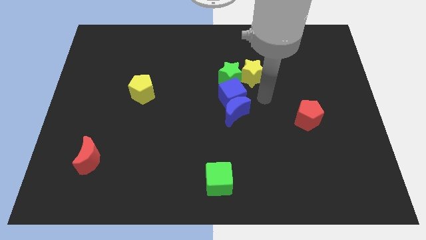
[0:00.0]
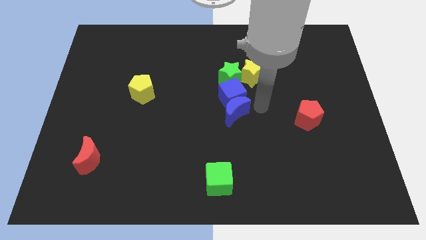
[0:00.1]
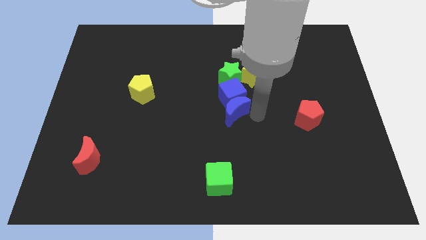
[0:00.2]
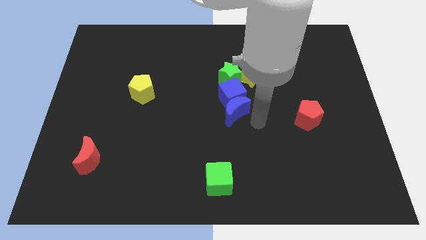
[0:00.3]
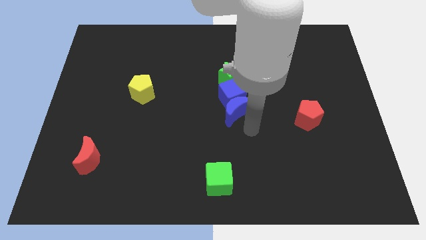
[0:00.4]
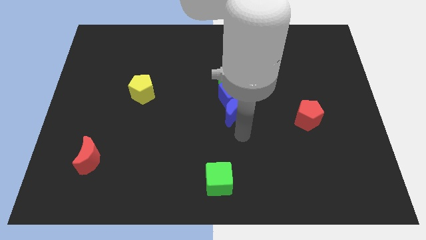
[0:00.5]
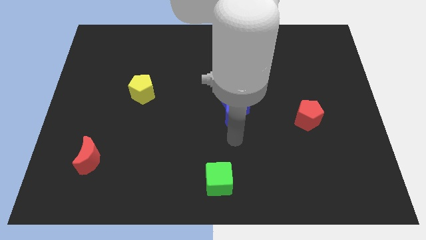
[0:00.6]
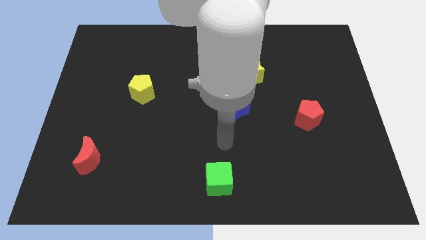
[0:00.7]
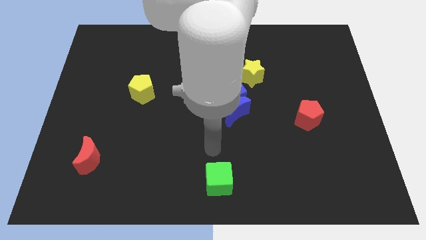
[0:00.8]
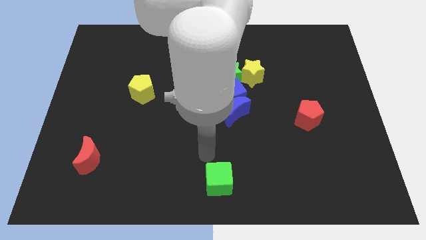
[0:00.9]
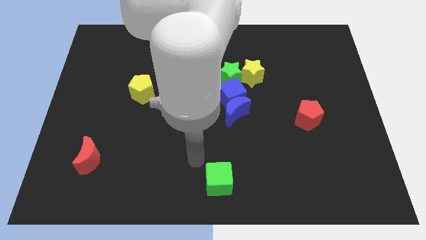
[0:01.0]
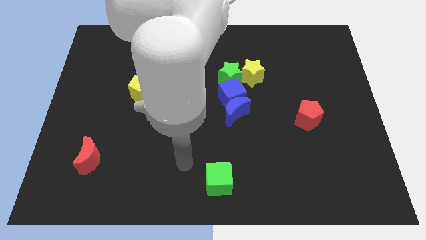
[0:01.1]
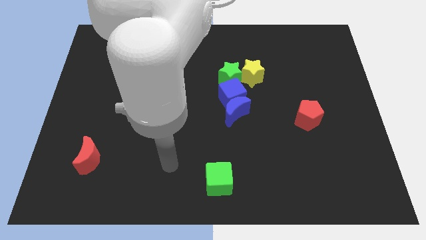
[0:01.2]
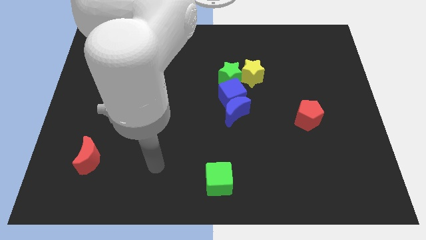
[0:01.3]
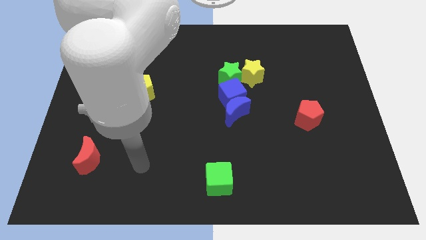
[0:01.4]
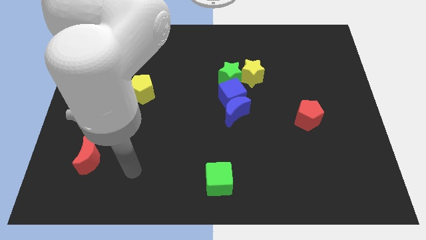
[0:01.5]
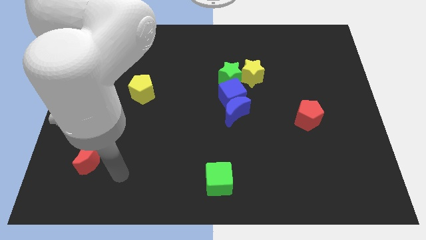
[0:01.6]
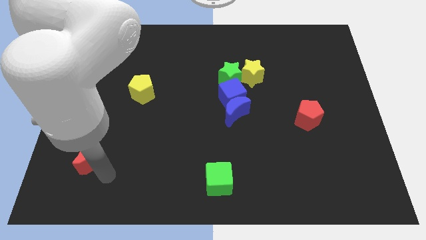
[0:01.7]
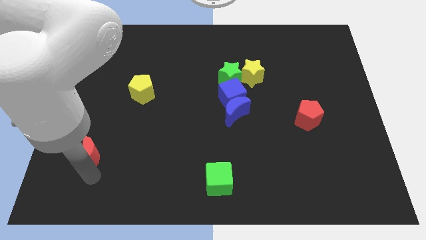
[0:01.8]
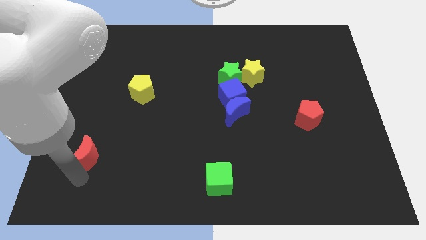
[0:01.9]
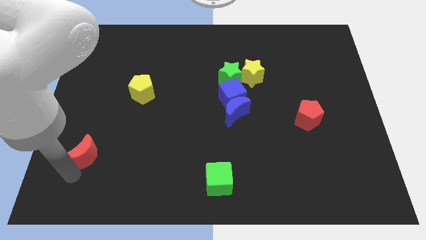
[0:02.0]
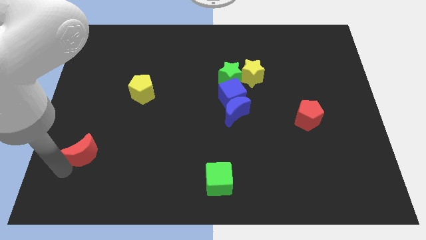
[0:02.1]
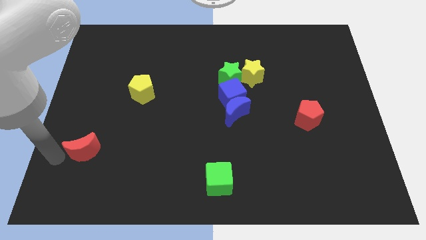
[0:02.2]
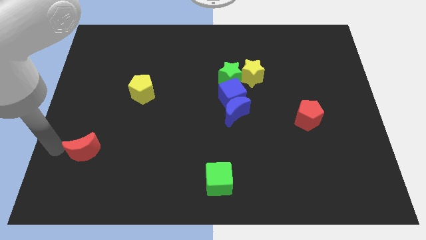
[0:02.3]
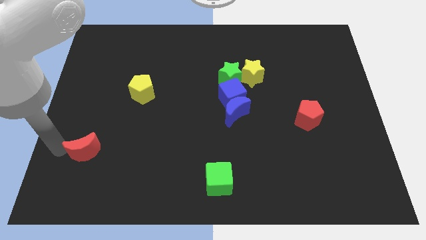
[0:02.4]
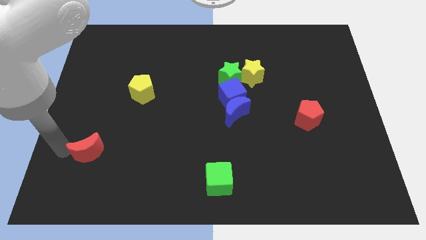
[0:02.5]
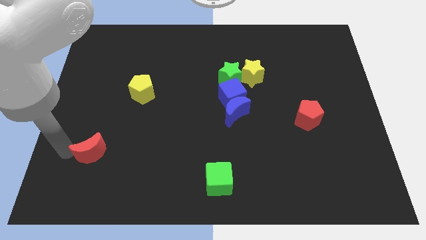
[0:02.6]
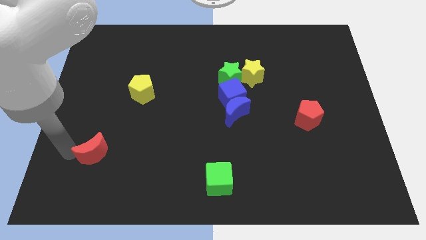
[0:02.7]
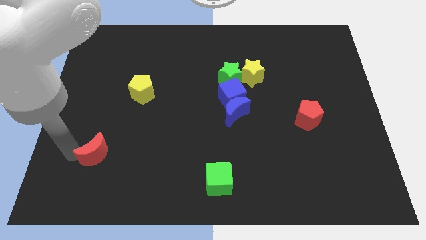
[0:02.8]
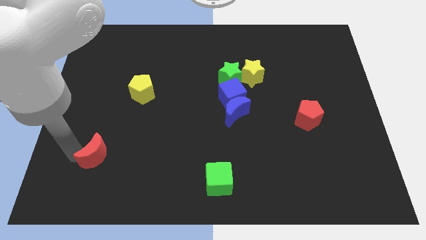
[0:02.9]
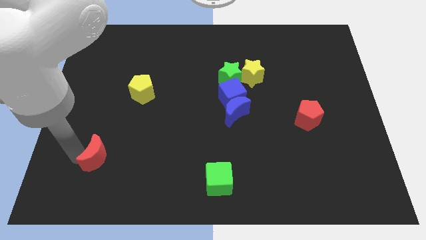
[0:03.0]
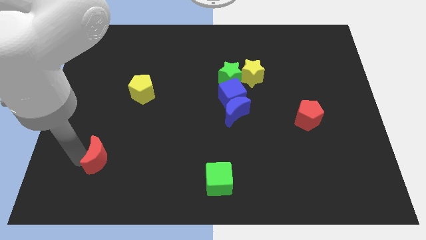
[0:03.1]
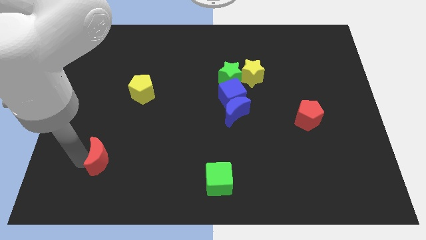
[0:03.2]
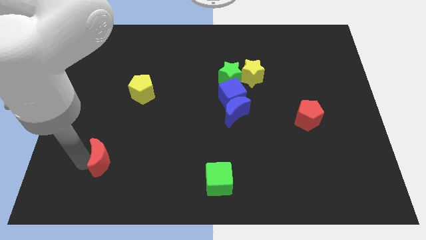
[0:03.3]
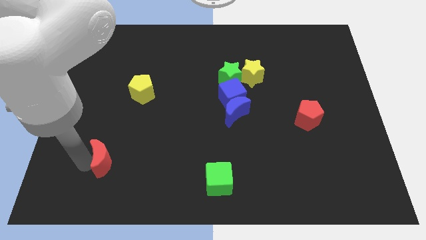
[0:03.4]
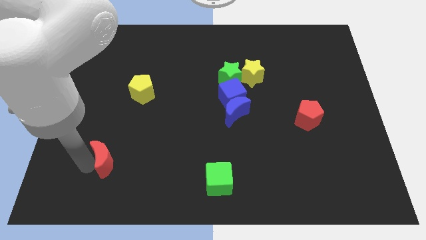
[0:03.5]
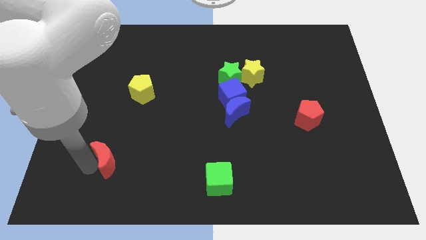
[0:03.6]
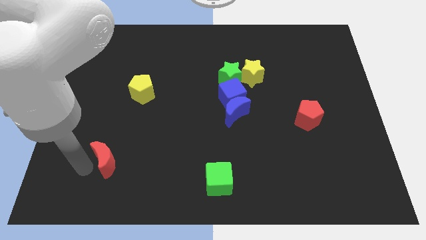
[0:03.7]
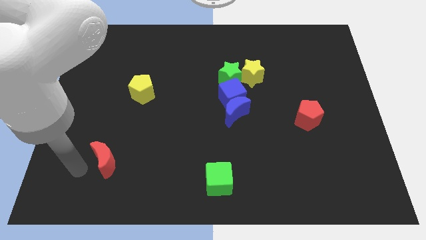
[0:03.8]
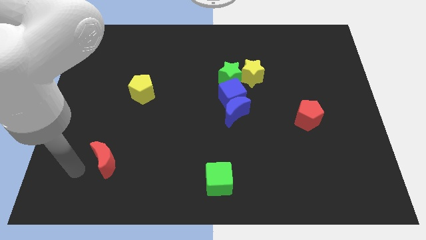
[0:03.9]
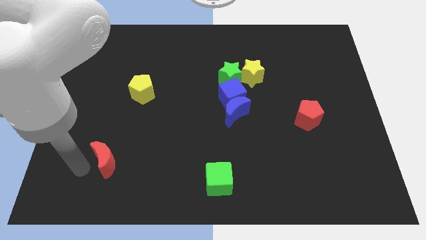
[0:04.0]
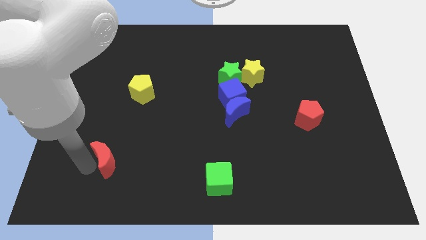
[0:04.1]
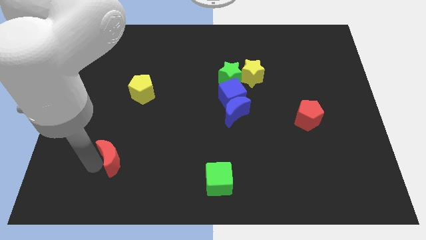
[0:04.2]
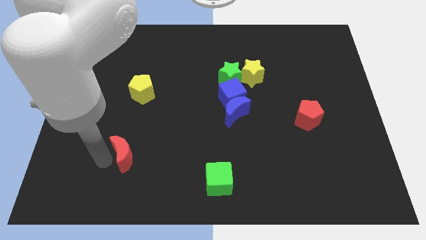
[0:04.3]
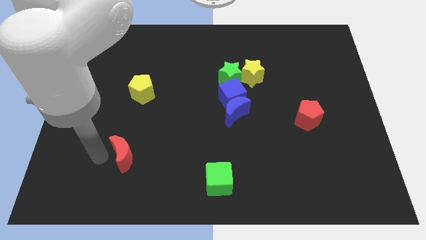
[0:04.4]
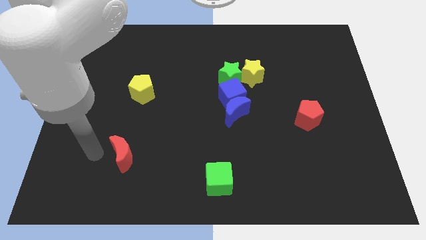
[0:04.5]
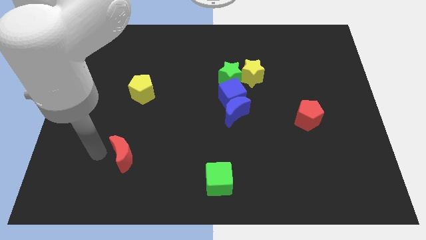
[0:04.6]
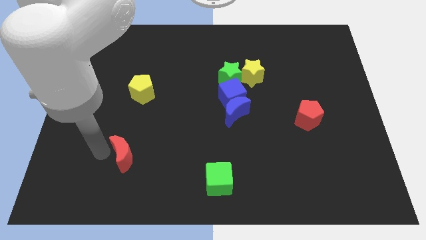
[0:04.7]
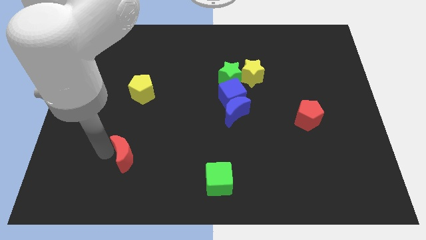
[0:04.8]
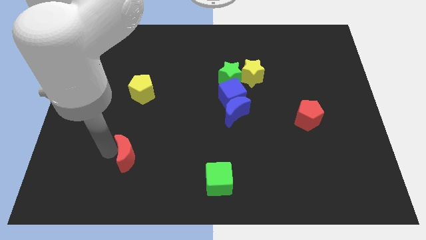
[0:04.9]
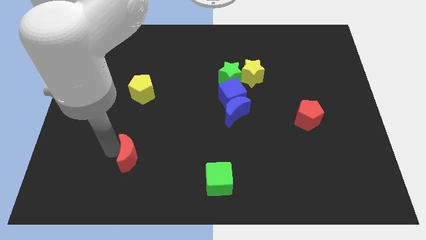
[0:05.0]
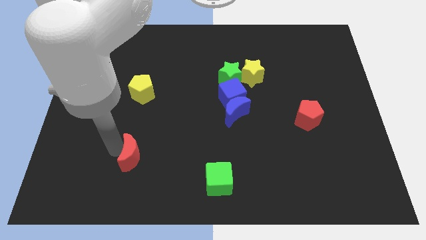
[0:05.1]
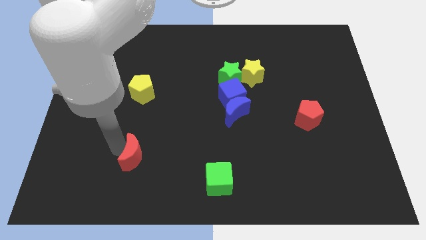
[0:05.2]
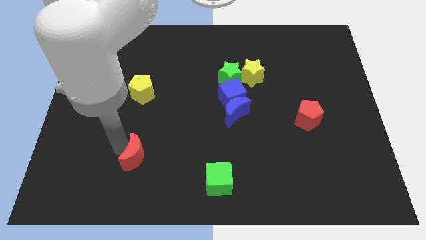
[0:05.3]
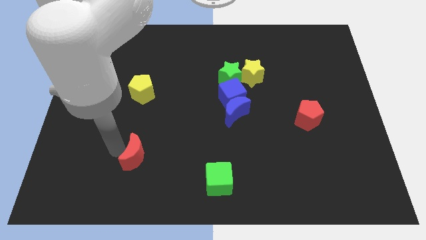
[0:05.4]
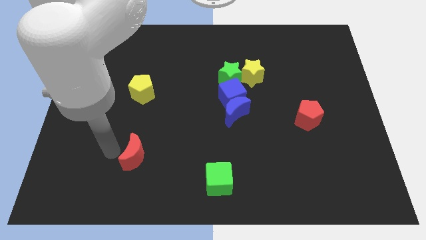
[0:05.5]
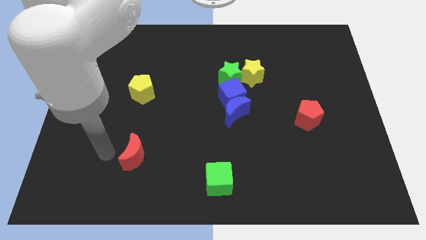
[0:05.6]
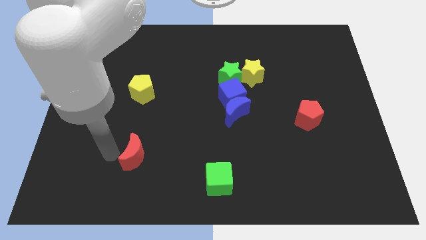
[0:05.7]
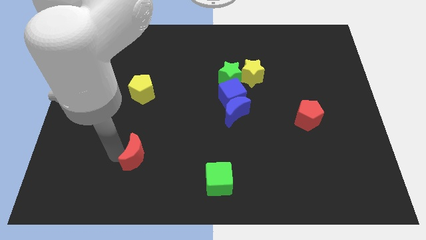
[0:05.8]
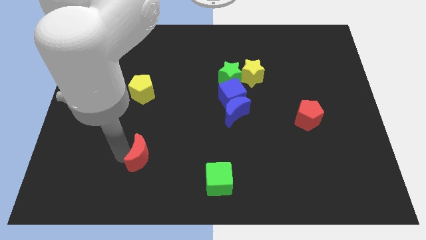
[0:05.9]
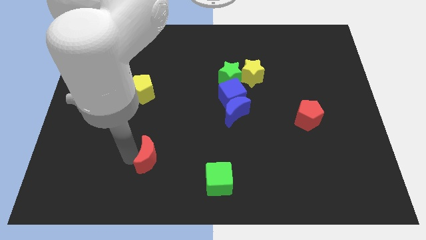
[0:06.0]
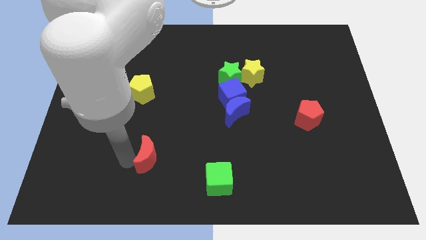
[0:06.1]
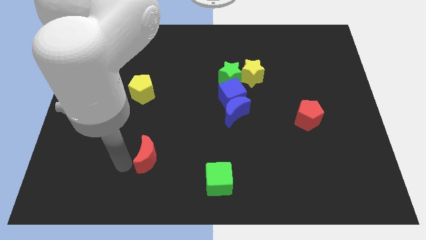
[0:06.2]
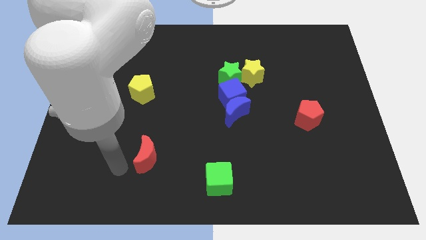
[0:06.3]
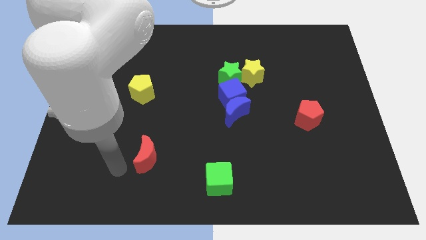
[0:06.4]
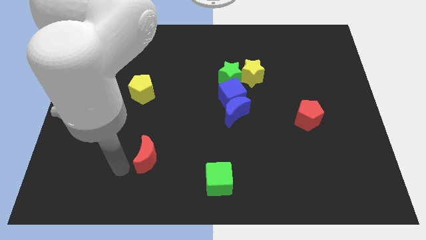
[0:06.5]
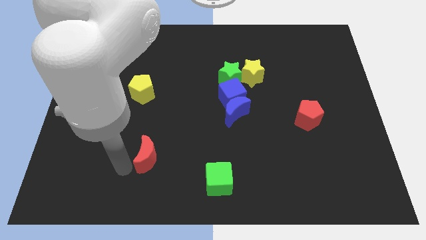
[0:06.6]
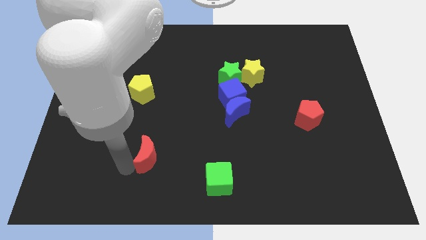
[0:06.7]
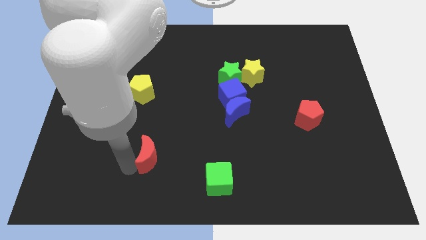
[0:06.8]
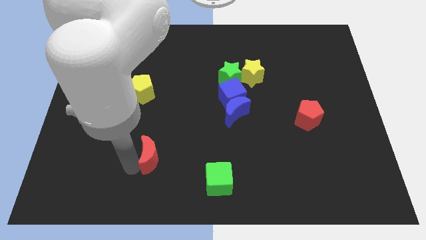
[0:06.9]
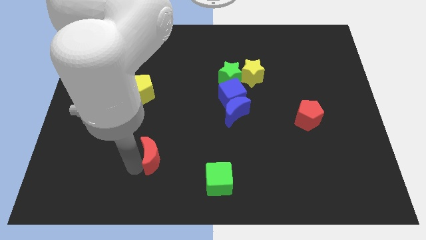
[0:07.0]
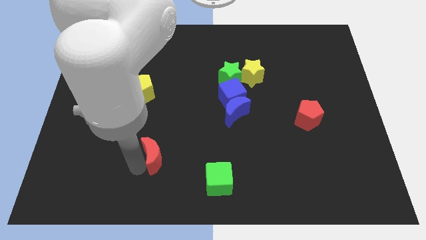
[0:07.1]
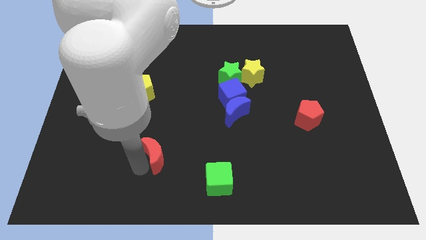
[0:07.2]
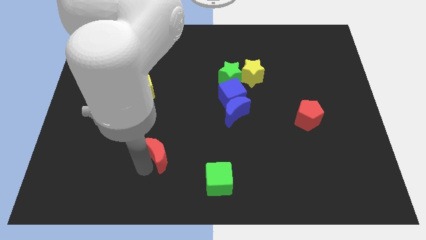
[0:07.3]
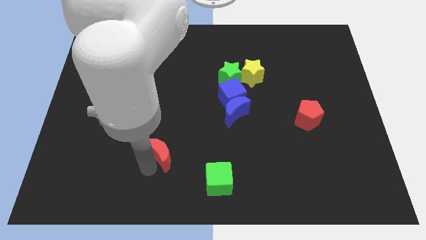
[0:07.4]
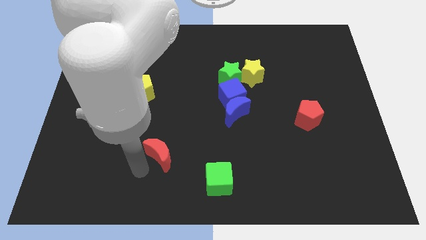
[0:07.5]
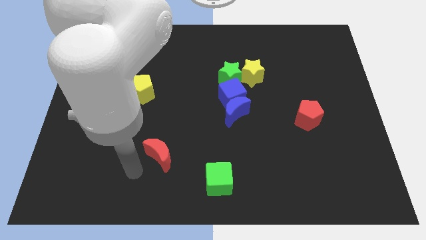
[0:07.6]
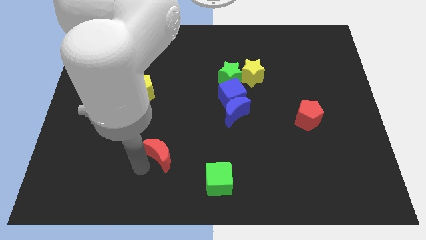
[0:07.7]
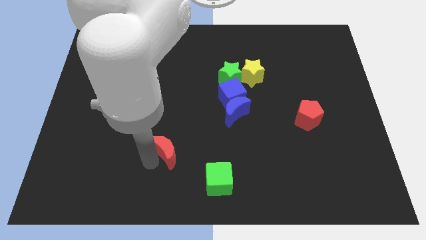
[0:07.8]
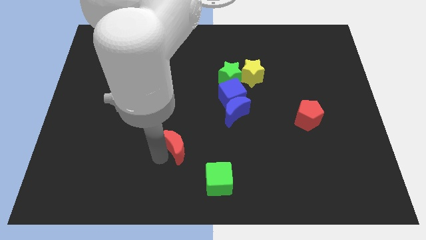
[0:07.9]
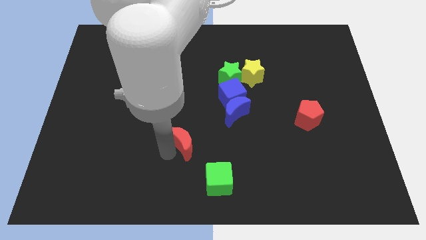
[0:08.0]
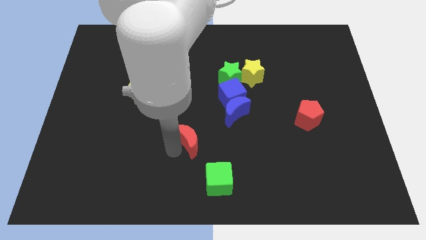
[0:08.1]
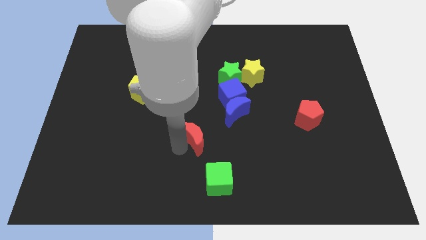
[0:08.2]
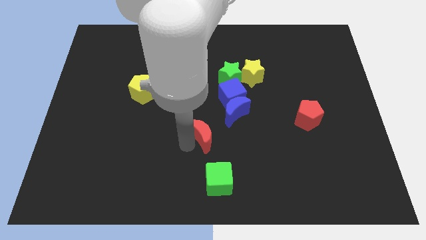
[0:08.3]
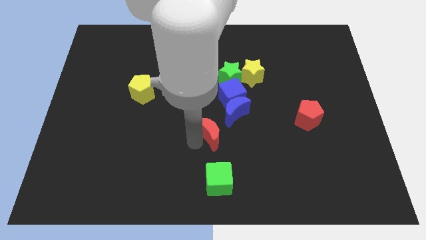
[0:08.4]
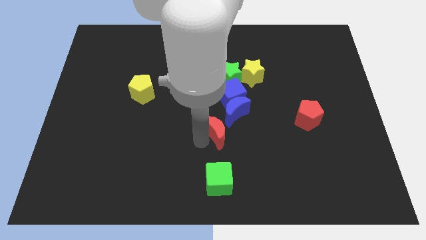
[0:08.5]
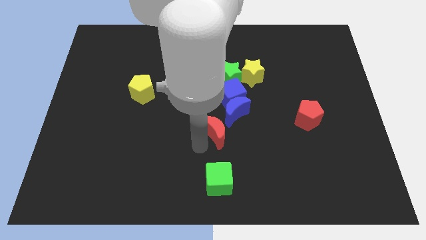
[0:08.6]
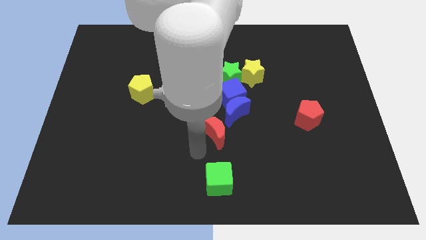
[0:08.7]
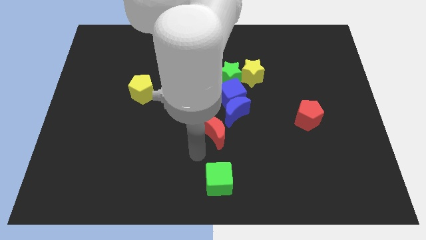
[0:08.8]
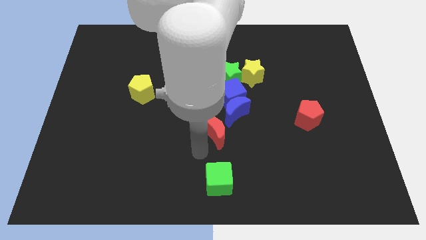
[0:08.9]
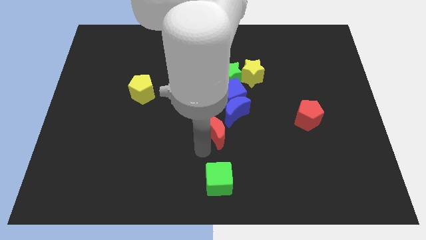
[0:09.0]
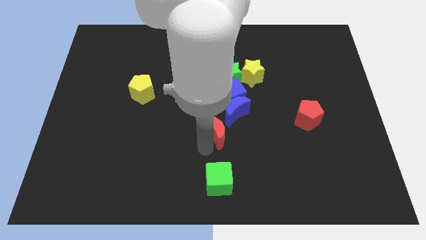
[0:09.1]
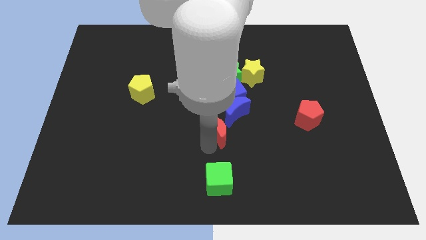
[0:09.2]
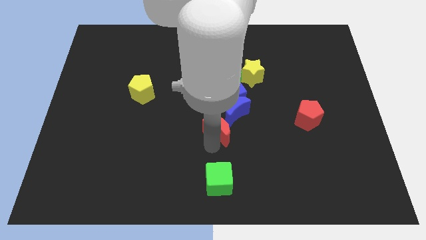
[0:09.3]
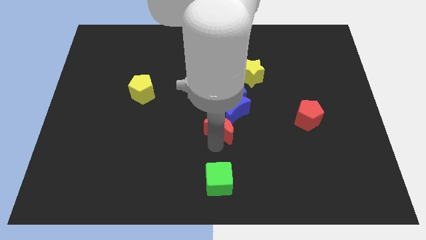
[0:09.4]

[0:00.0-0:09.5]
put the red moon close to the blue moon
